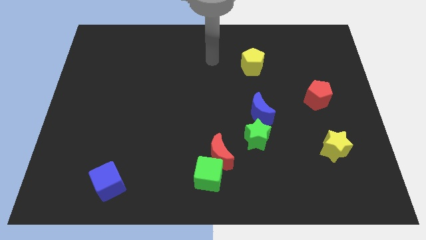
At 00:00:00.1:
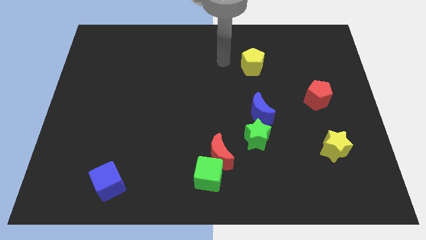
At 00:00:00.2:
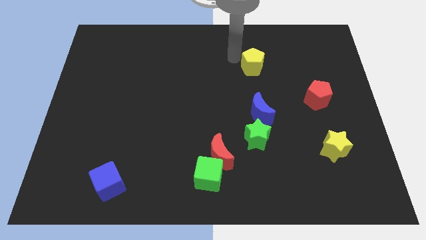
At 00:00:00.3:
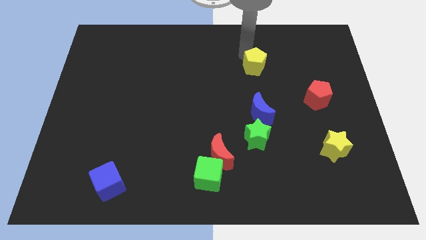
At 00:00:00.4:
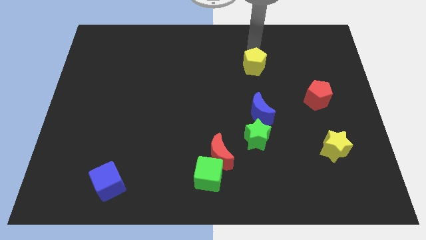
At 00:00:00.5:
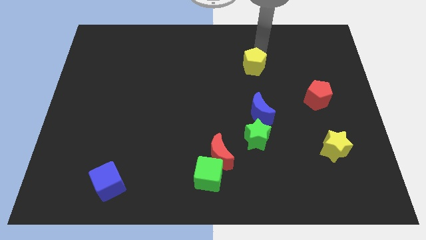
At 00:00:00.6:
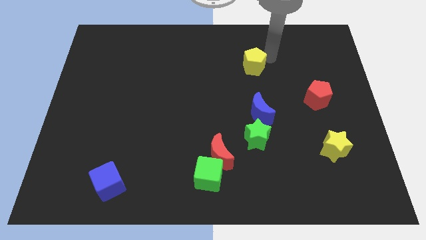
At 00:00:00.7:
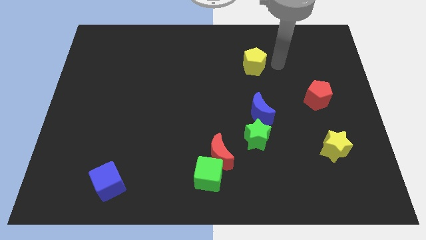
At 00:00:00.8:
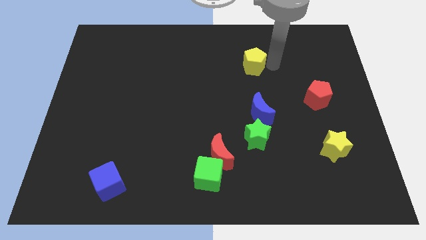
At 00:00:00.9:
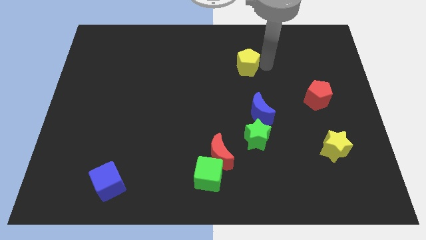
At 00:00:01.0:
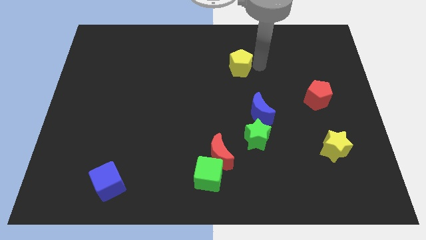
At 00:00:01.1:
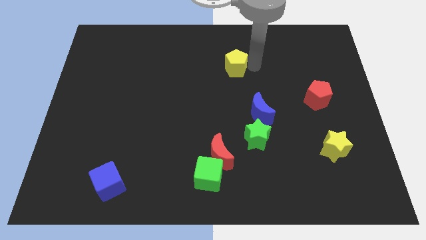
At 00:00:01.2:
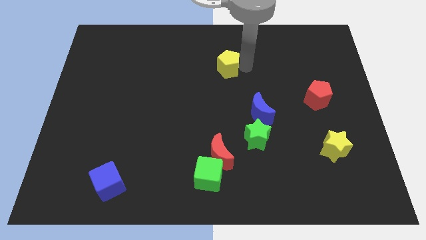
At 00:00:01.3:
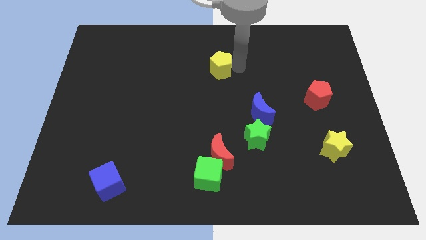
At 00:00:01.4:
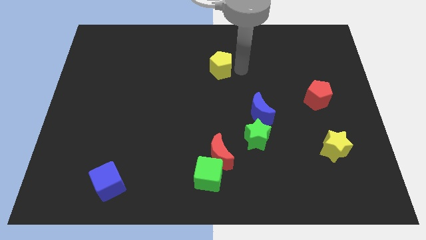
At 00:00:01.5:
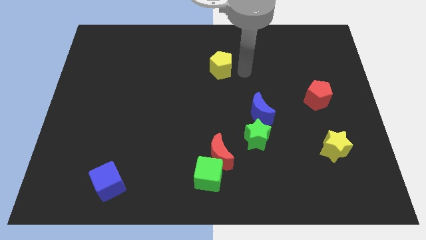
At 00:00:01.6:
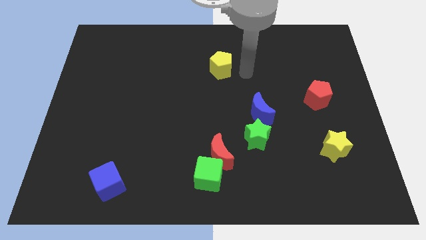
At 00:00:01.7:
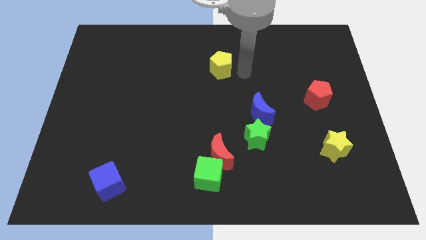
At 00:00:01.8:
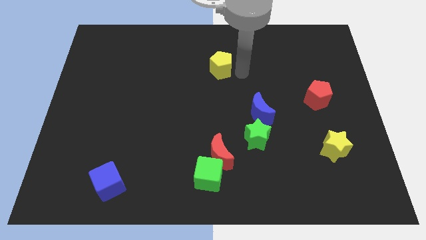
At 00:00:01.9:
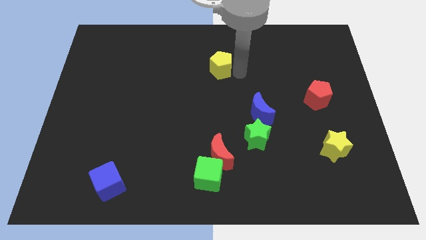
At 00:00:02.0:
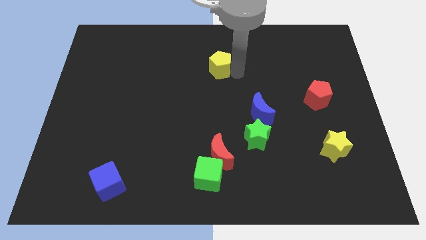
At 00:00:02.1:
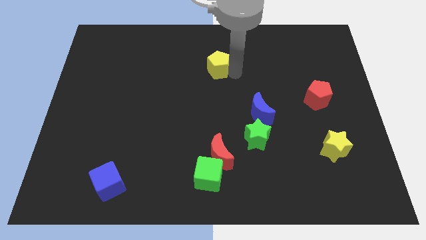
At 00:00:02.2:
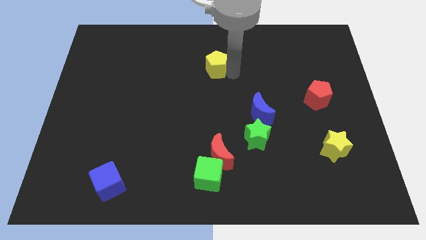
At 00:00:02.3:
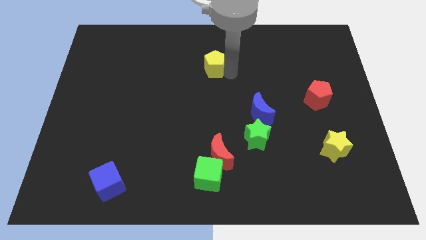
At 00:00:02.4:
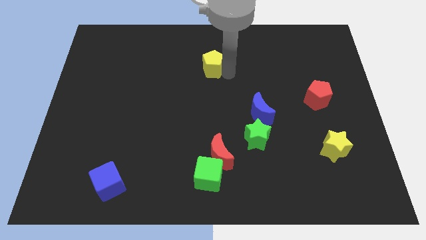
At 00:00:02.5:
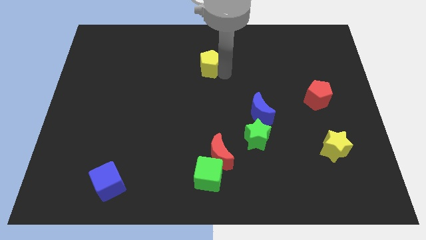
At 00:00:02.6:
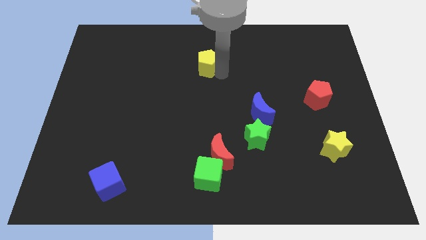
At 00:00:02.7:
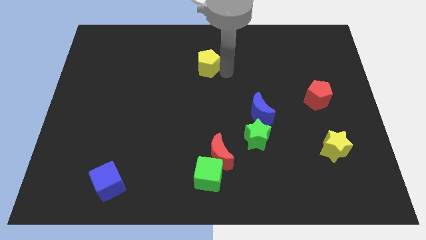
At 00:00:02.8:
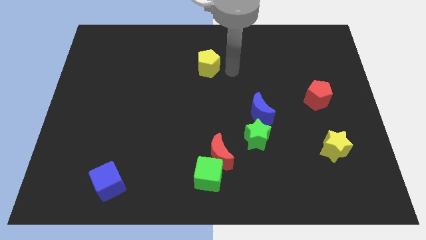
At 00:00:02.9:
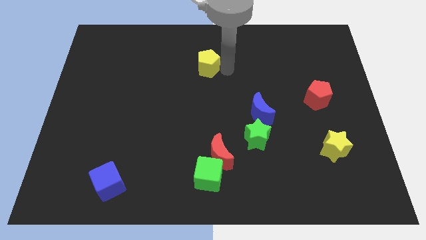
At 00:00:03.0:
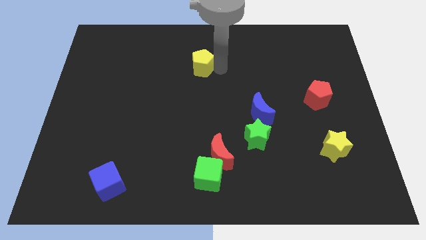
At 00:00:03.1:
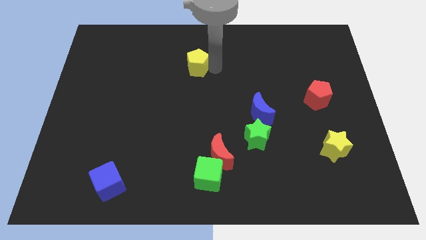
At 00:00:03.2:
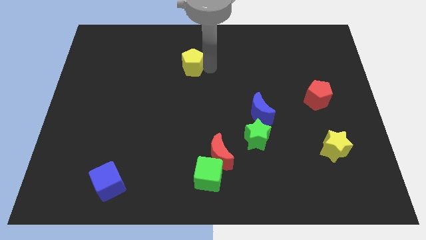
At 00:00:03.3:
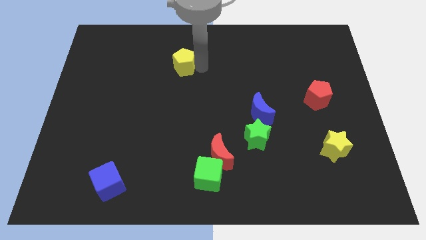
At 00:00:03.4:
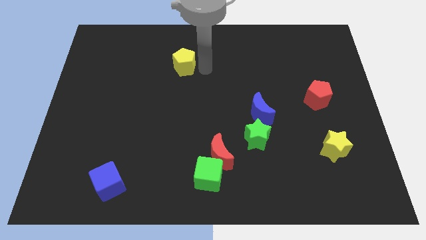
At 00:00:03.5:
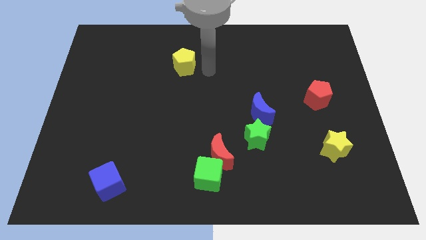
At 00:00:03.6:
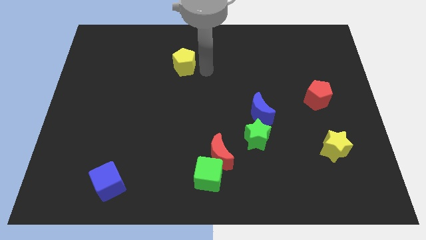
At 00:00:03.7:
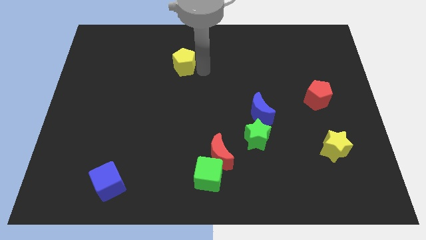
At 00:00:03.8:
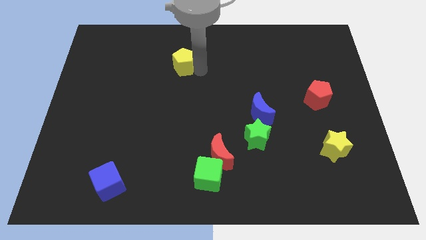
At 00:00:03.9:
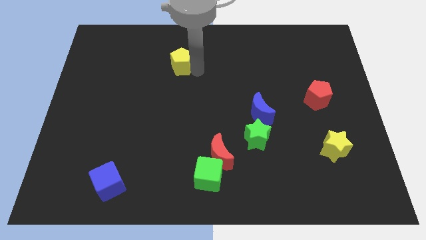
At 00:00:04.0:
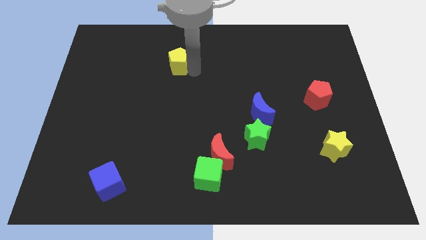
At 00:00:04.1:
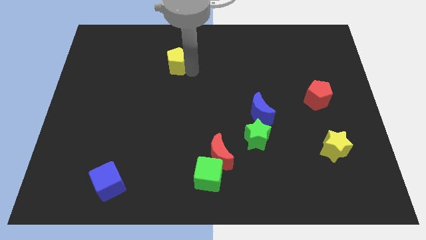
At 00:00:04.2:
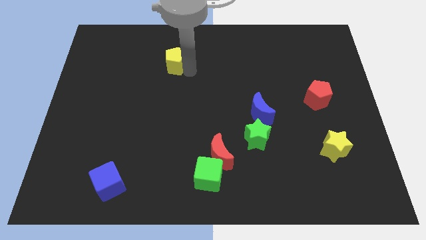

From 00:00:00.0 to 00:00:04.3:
move the yellow pentagon to the left

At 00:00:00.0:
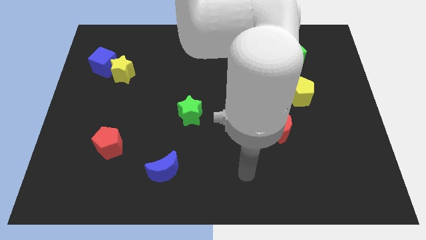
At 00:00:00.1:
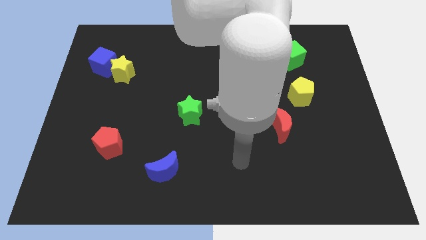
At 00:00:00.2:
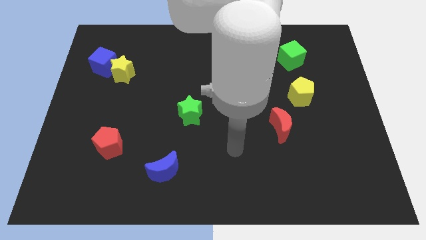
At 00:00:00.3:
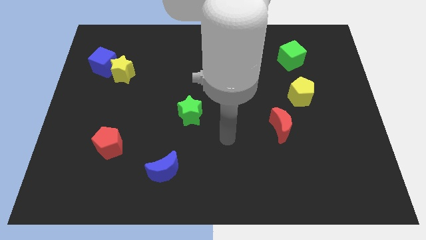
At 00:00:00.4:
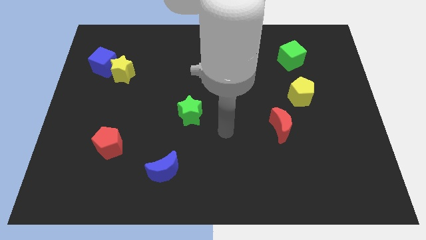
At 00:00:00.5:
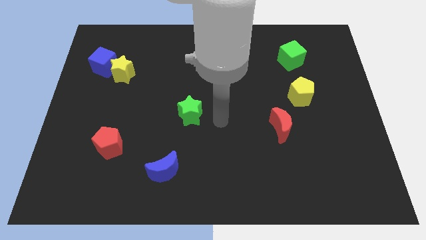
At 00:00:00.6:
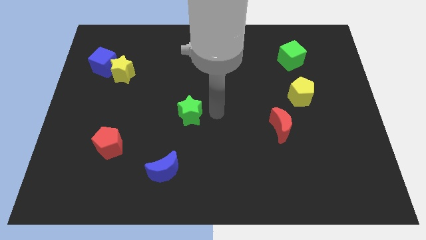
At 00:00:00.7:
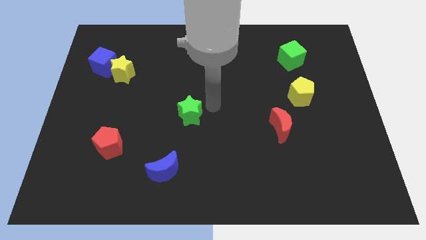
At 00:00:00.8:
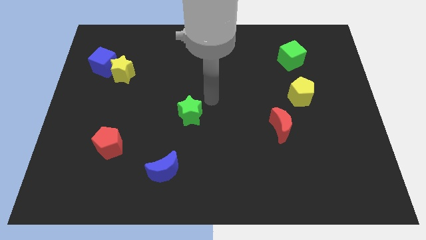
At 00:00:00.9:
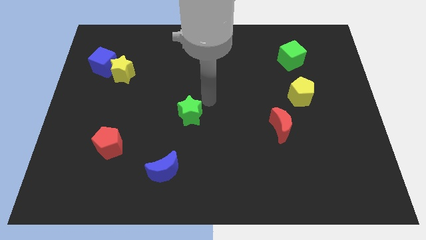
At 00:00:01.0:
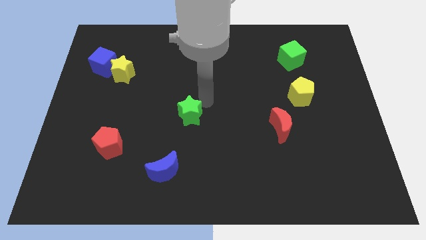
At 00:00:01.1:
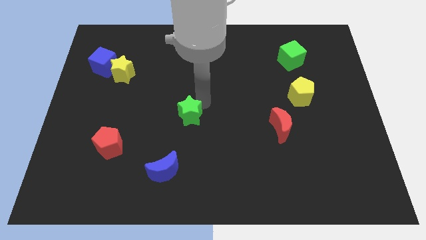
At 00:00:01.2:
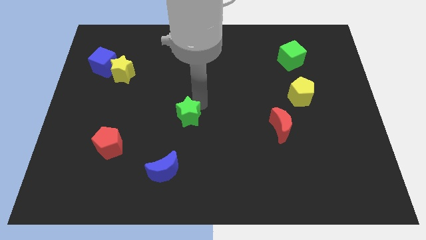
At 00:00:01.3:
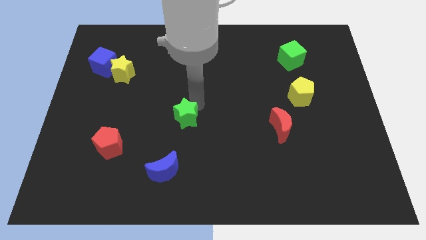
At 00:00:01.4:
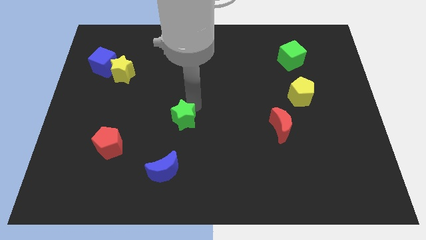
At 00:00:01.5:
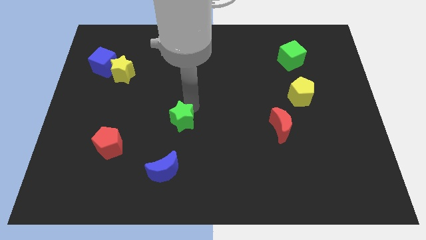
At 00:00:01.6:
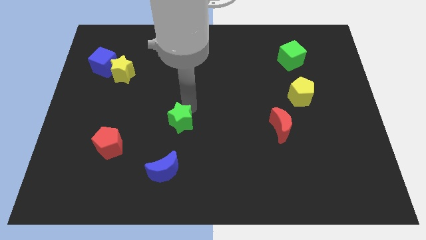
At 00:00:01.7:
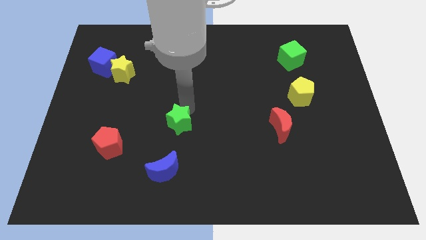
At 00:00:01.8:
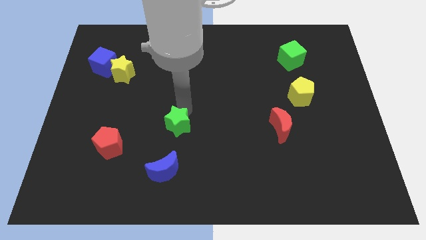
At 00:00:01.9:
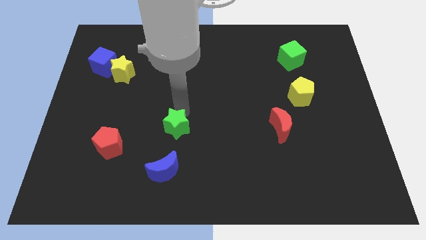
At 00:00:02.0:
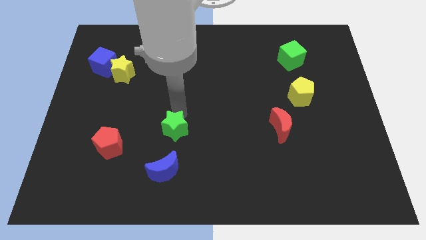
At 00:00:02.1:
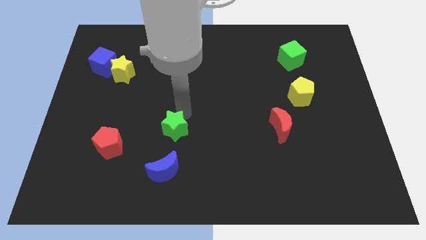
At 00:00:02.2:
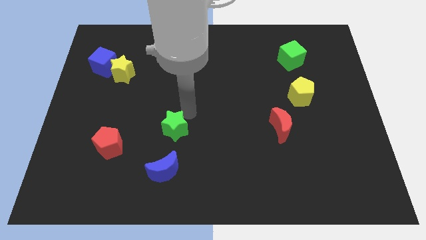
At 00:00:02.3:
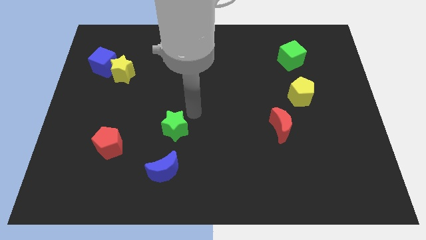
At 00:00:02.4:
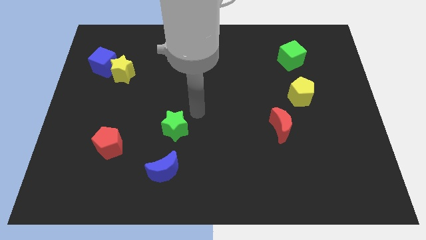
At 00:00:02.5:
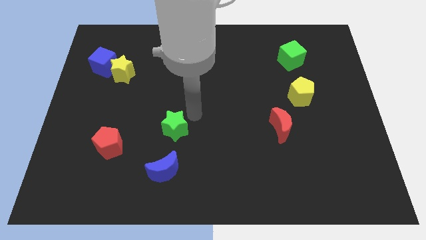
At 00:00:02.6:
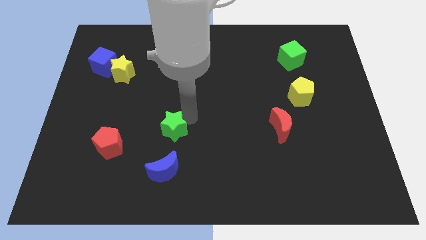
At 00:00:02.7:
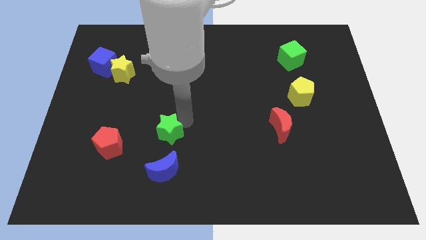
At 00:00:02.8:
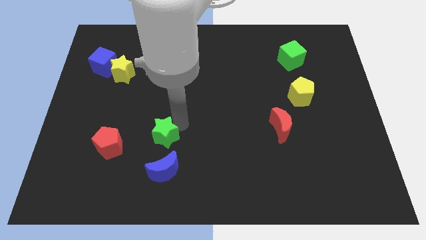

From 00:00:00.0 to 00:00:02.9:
slide the green star down and left slightly

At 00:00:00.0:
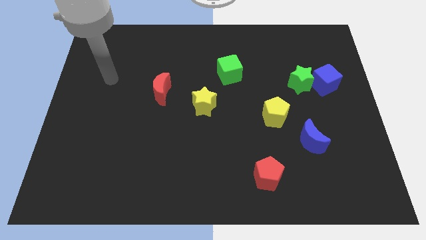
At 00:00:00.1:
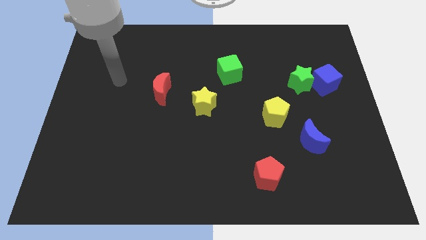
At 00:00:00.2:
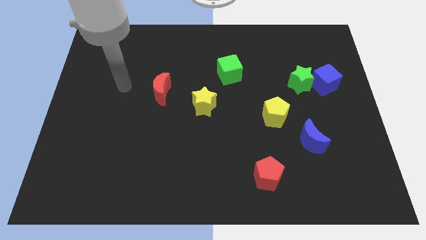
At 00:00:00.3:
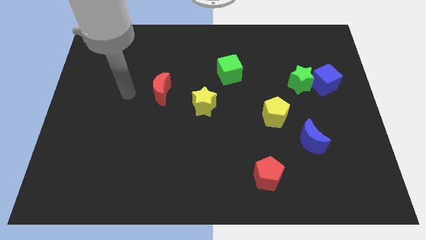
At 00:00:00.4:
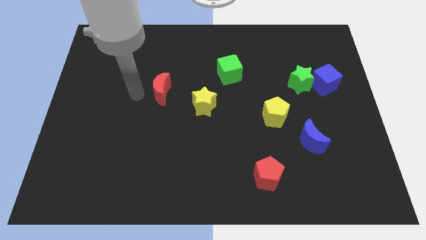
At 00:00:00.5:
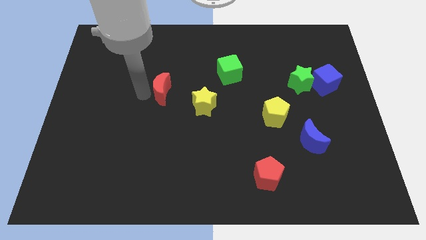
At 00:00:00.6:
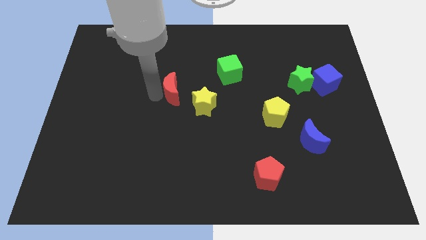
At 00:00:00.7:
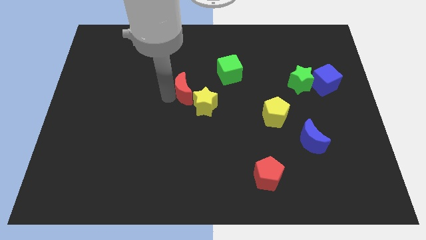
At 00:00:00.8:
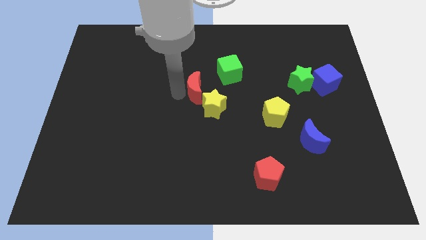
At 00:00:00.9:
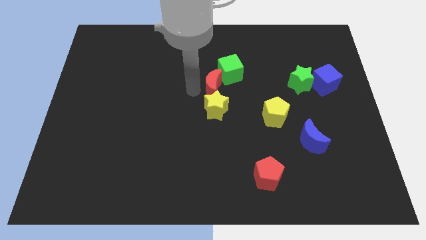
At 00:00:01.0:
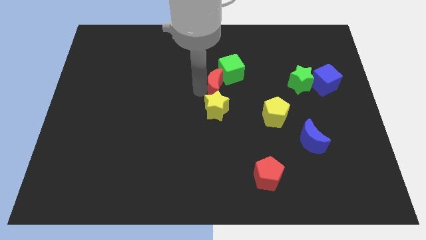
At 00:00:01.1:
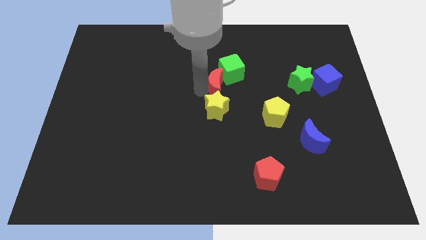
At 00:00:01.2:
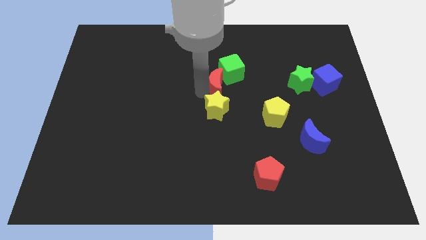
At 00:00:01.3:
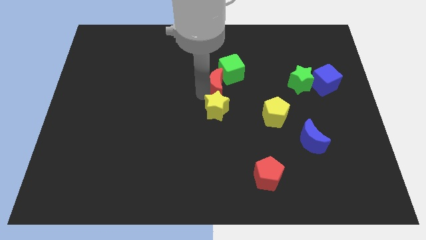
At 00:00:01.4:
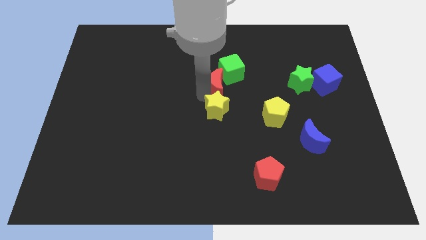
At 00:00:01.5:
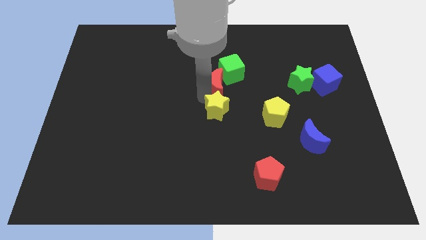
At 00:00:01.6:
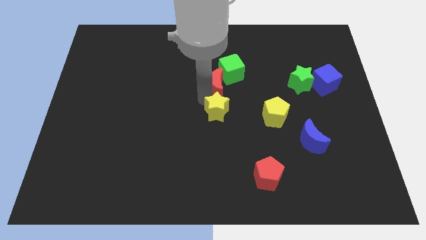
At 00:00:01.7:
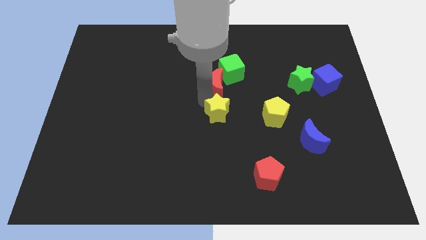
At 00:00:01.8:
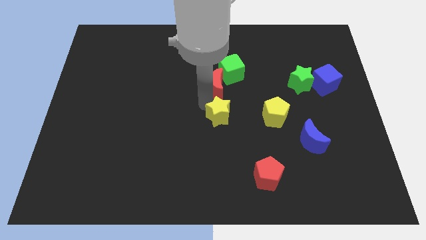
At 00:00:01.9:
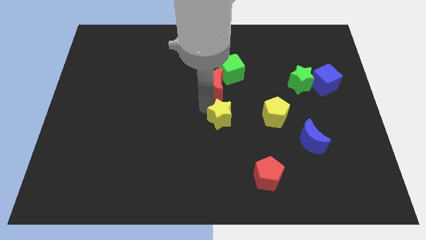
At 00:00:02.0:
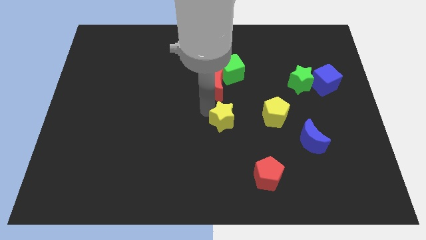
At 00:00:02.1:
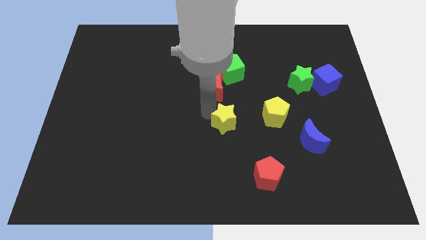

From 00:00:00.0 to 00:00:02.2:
move the yellow star down and right diagonally a little
